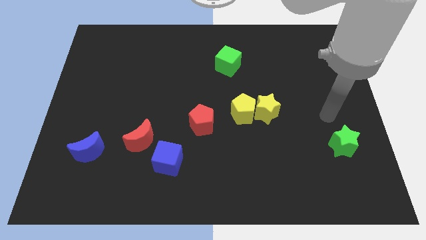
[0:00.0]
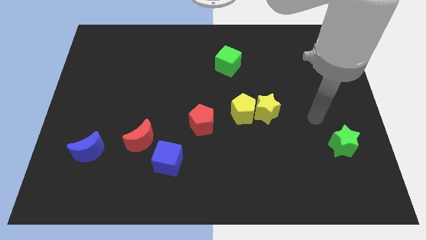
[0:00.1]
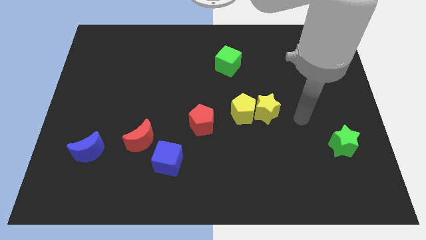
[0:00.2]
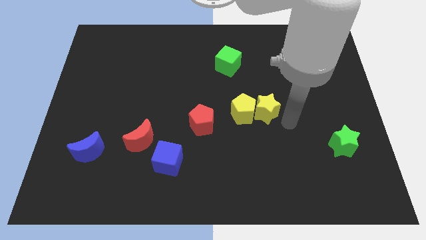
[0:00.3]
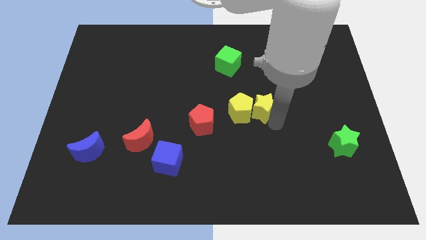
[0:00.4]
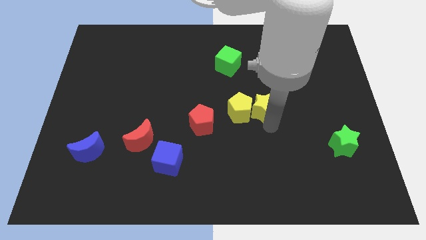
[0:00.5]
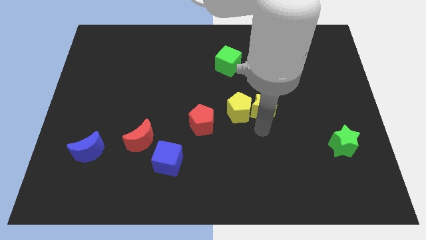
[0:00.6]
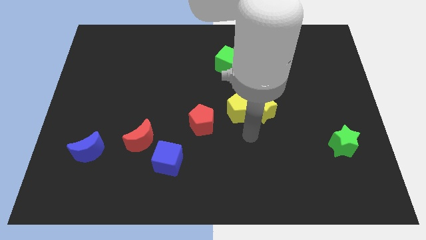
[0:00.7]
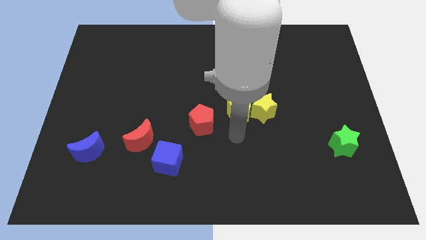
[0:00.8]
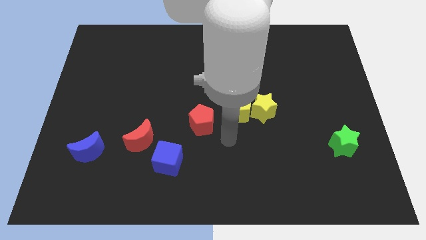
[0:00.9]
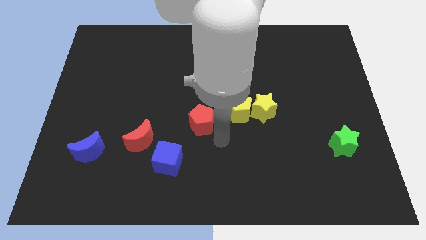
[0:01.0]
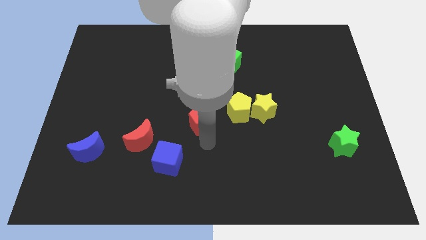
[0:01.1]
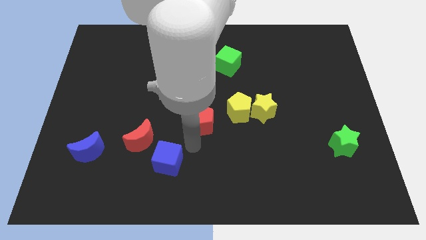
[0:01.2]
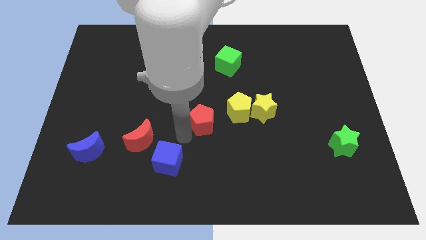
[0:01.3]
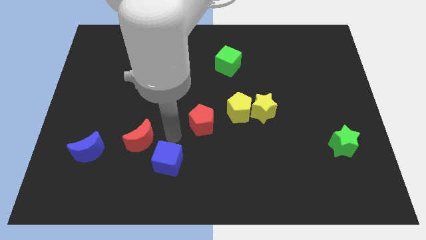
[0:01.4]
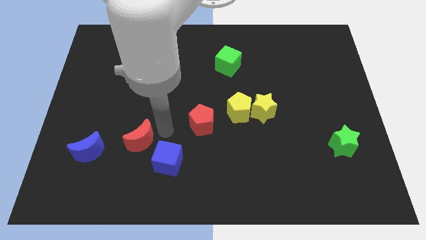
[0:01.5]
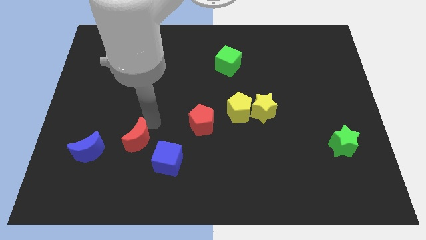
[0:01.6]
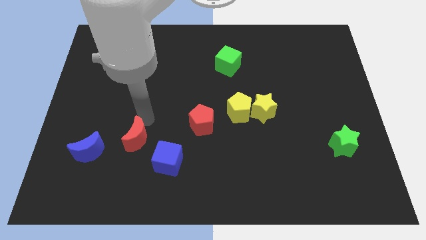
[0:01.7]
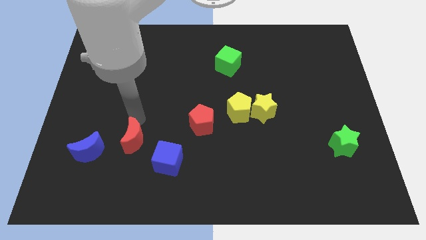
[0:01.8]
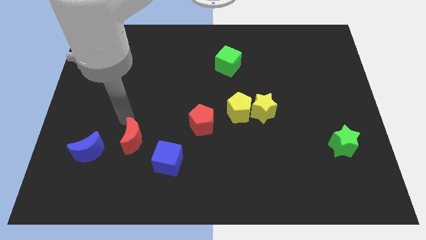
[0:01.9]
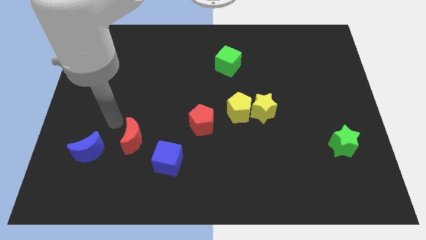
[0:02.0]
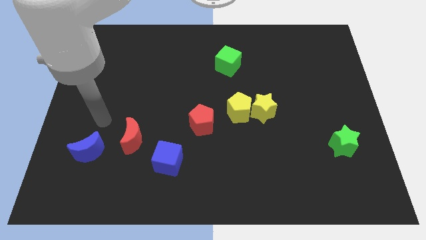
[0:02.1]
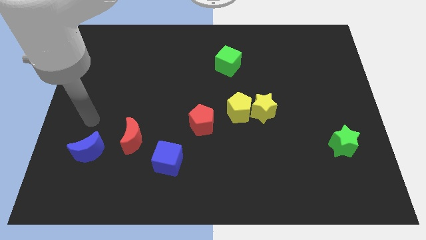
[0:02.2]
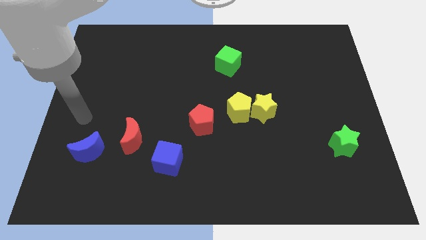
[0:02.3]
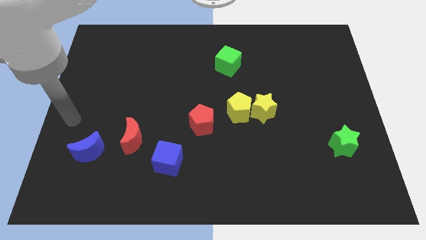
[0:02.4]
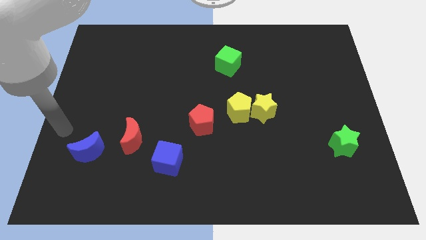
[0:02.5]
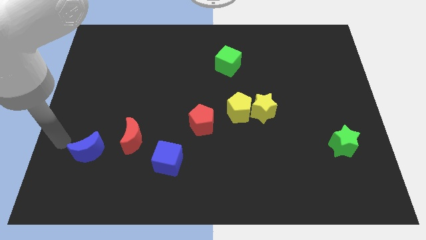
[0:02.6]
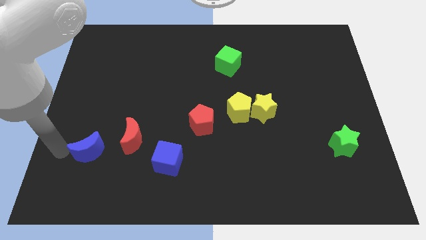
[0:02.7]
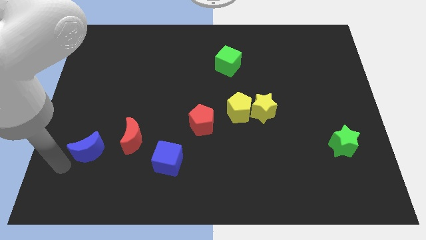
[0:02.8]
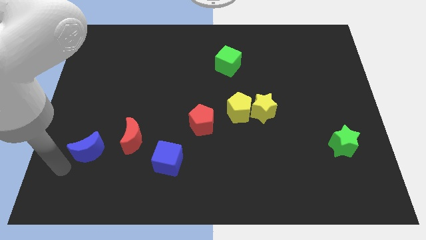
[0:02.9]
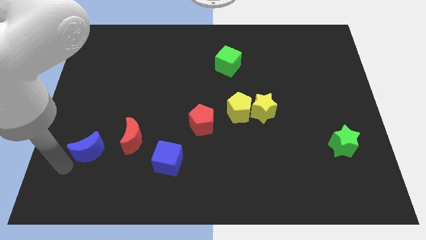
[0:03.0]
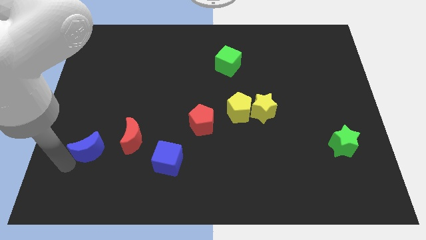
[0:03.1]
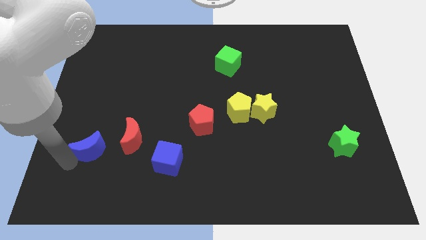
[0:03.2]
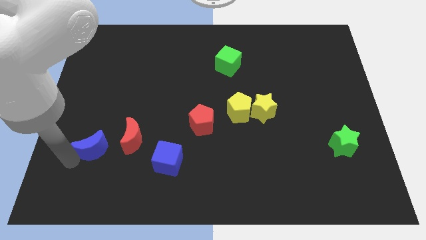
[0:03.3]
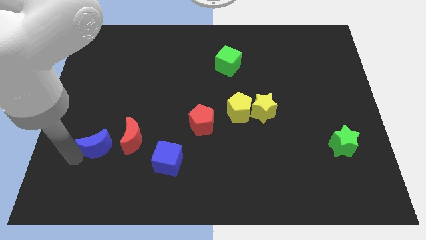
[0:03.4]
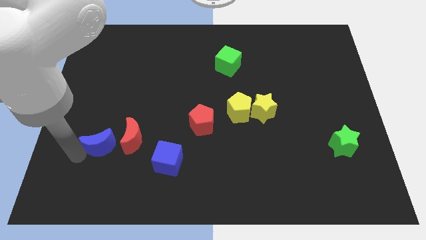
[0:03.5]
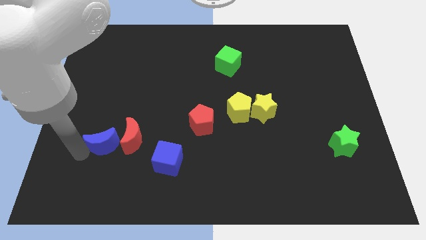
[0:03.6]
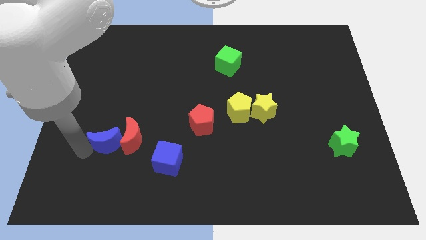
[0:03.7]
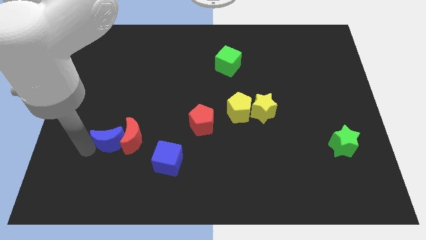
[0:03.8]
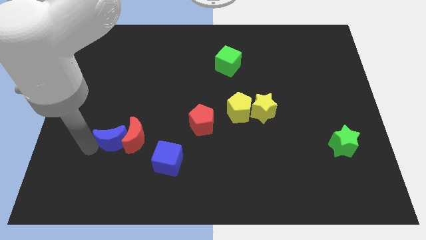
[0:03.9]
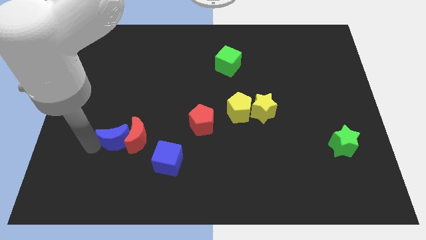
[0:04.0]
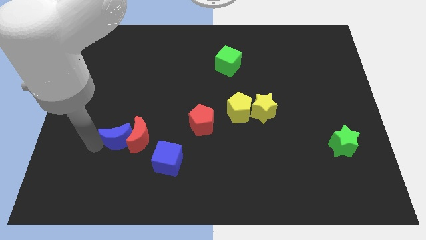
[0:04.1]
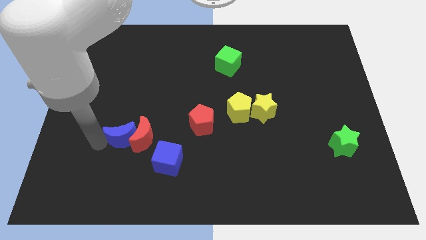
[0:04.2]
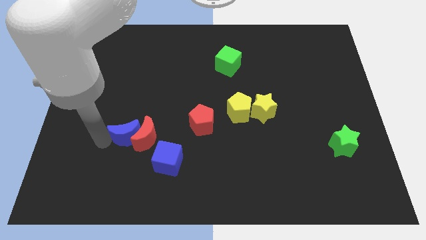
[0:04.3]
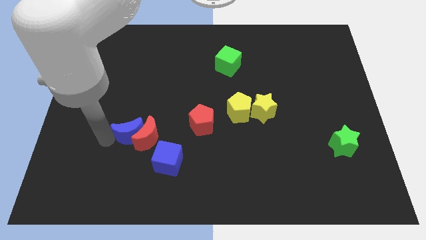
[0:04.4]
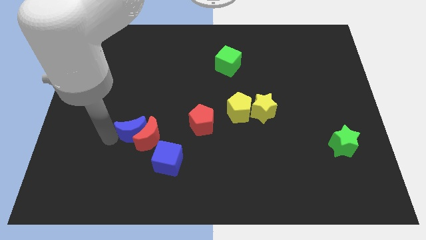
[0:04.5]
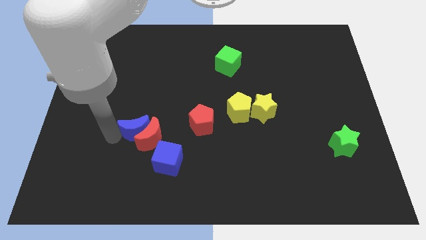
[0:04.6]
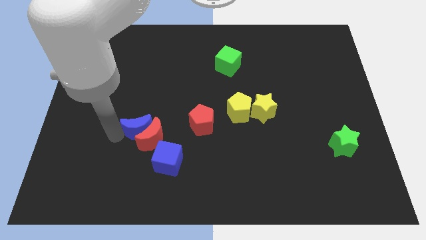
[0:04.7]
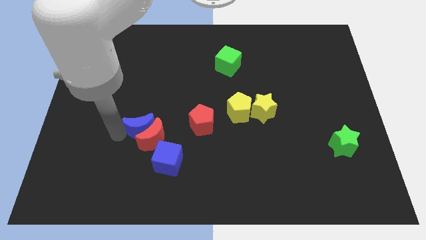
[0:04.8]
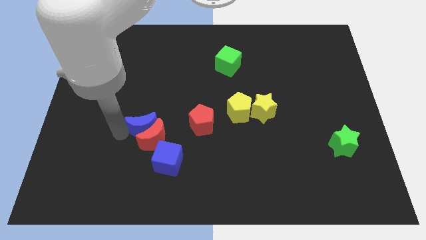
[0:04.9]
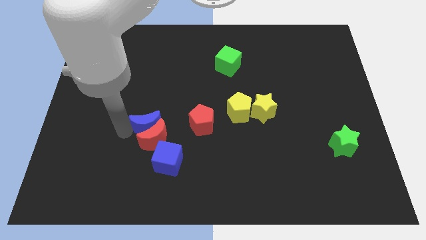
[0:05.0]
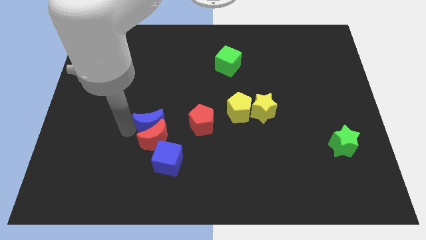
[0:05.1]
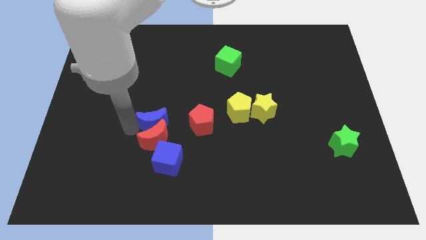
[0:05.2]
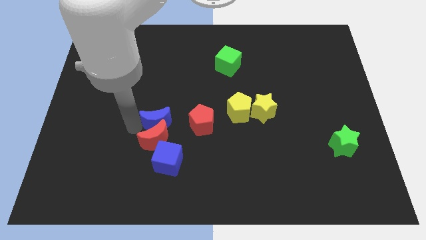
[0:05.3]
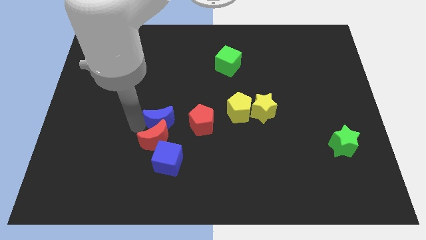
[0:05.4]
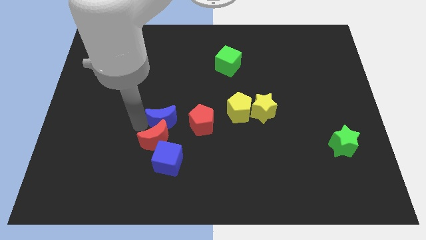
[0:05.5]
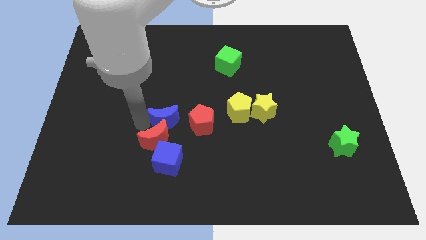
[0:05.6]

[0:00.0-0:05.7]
slide the blue moon to the middle of the board
